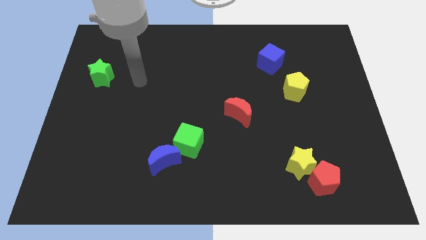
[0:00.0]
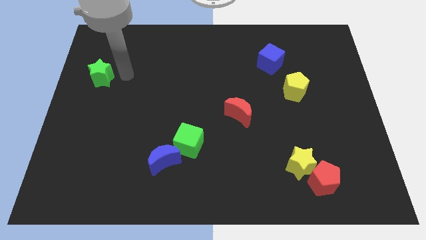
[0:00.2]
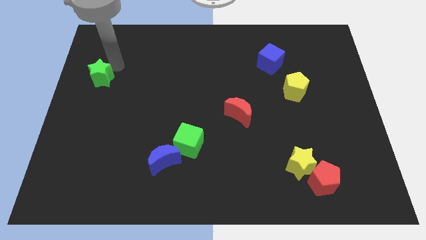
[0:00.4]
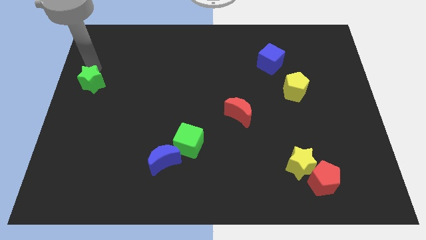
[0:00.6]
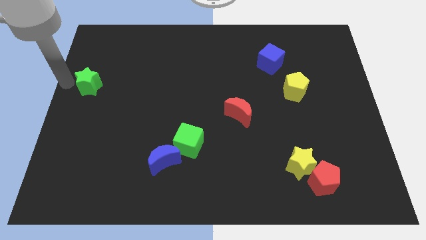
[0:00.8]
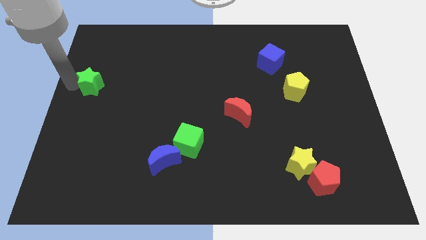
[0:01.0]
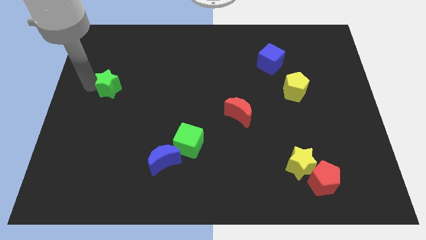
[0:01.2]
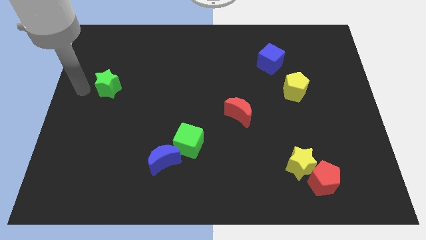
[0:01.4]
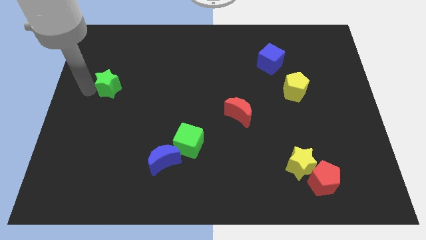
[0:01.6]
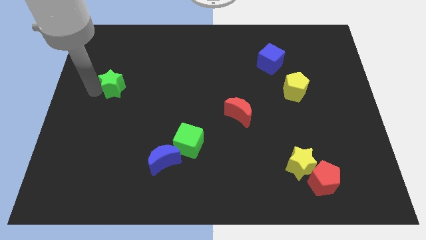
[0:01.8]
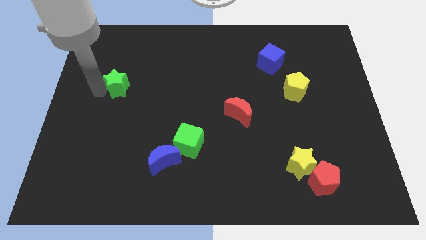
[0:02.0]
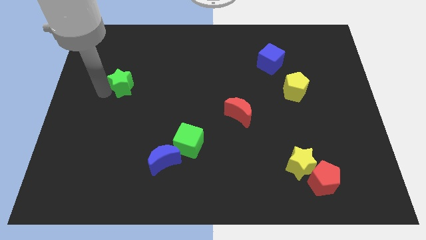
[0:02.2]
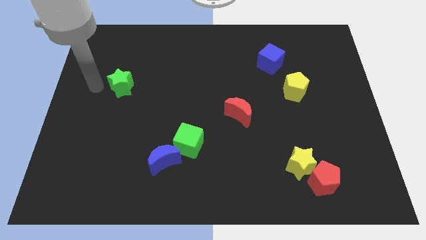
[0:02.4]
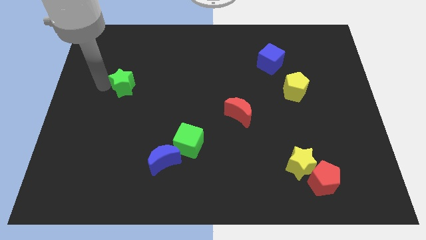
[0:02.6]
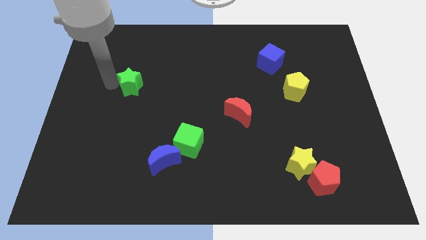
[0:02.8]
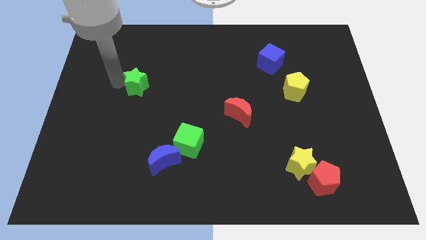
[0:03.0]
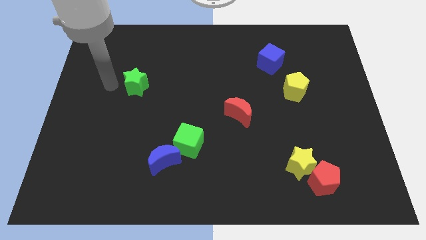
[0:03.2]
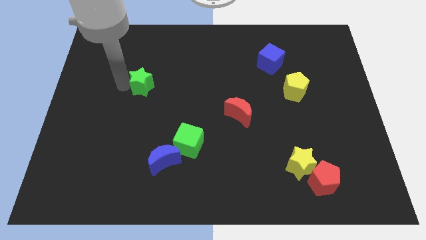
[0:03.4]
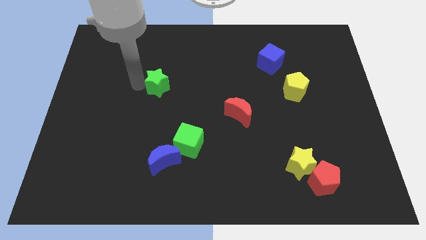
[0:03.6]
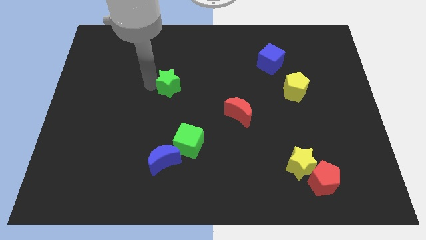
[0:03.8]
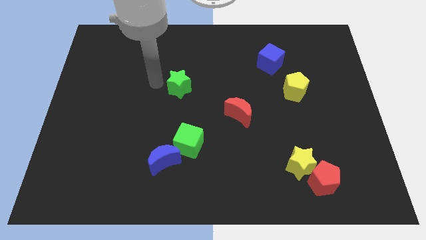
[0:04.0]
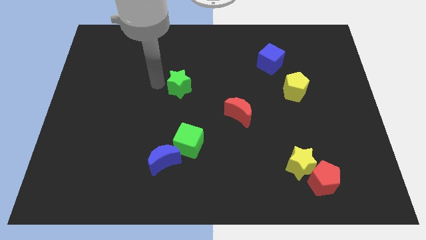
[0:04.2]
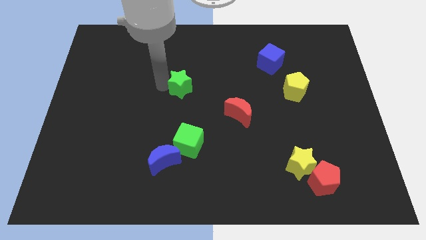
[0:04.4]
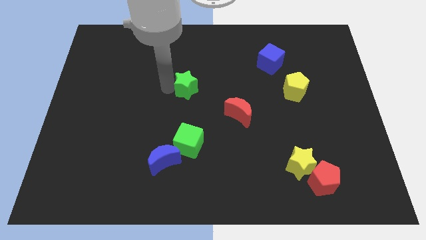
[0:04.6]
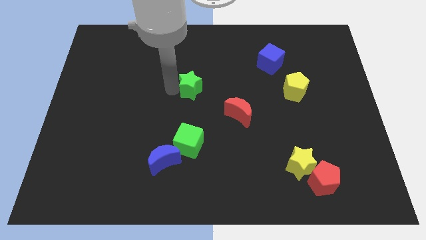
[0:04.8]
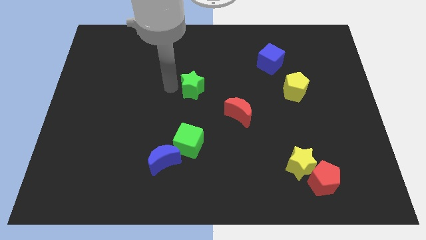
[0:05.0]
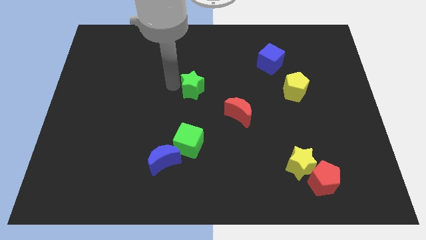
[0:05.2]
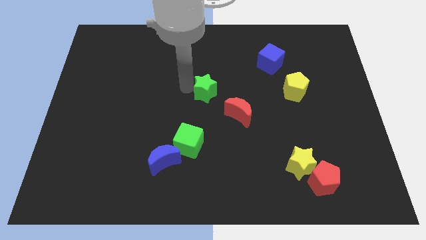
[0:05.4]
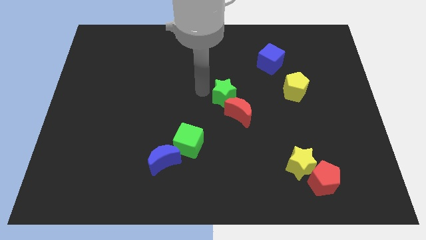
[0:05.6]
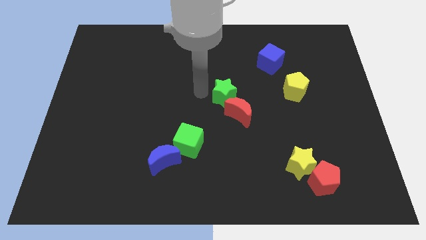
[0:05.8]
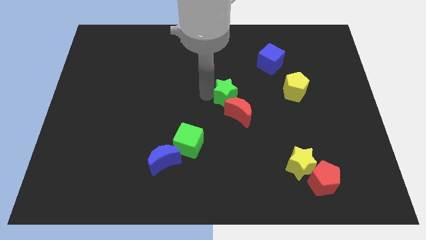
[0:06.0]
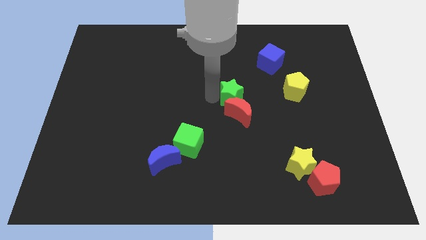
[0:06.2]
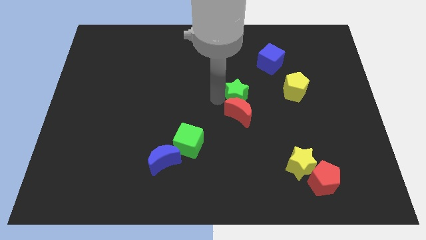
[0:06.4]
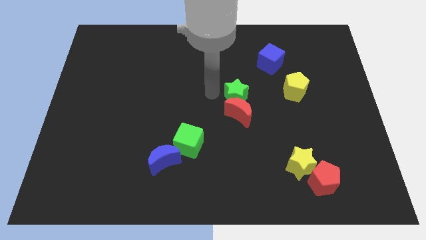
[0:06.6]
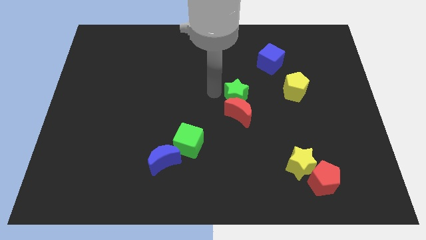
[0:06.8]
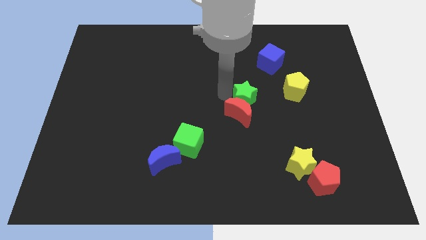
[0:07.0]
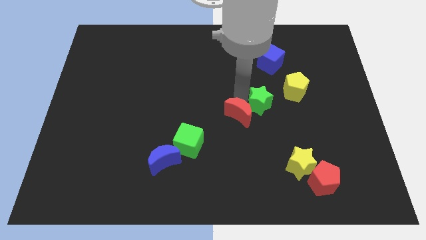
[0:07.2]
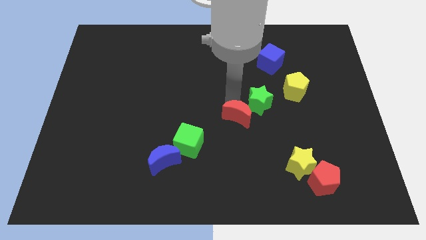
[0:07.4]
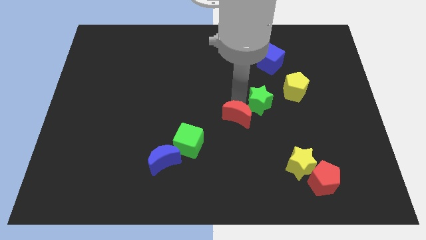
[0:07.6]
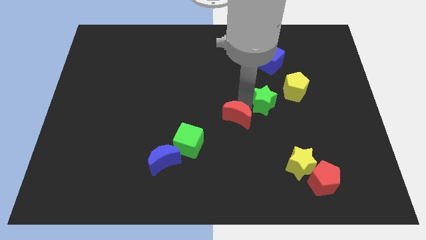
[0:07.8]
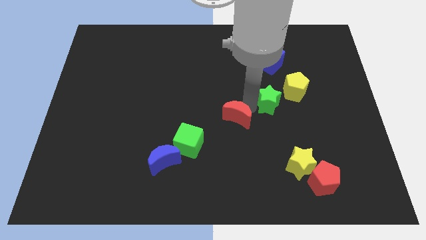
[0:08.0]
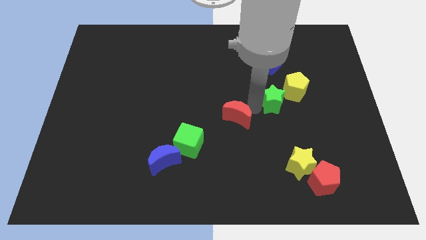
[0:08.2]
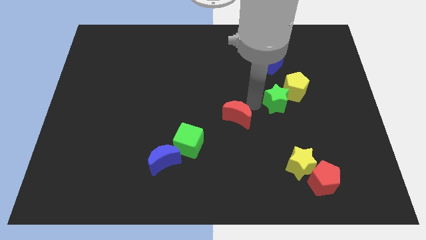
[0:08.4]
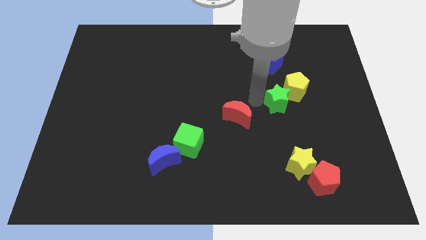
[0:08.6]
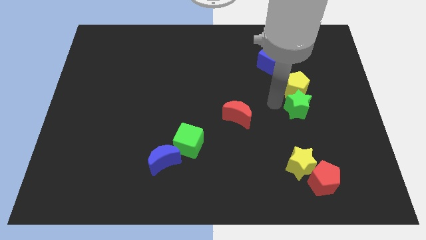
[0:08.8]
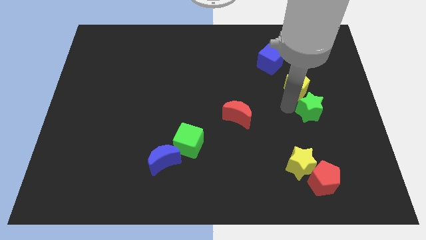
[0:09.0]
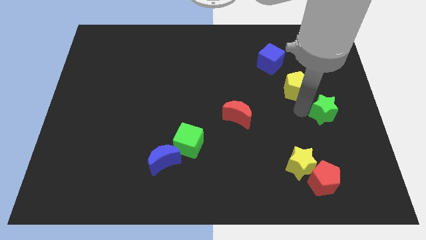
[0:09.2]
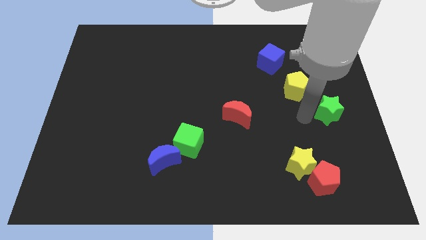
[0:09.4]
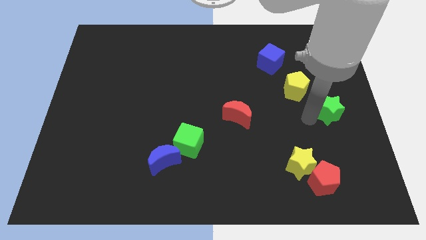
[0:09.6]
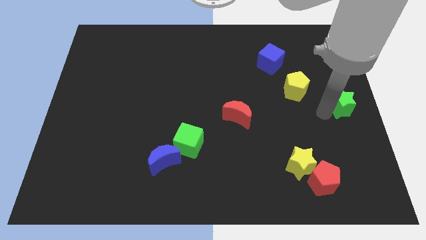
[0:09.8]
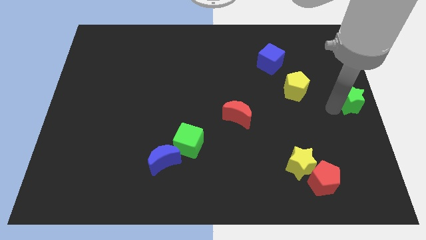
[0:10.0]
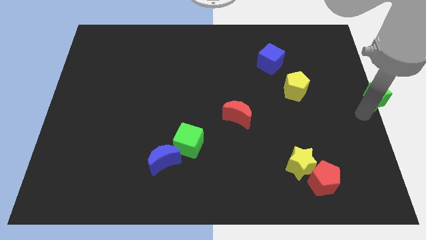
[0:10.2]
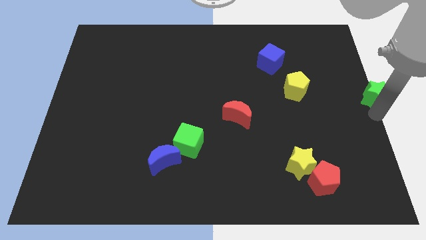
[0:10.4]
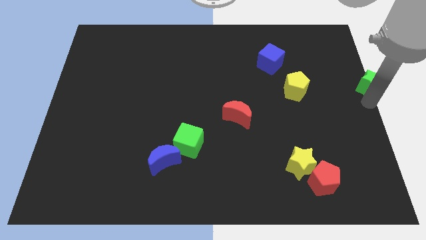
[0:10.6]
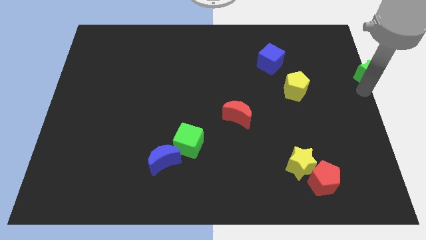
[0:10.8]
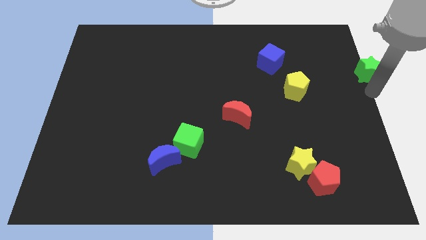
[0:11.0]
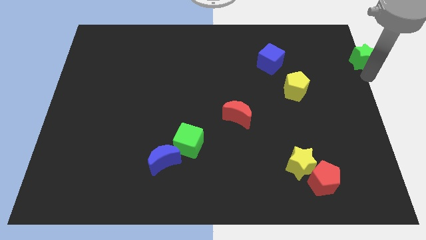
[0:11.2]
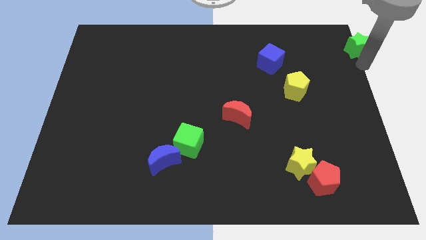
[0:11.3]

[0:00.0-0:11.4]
push the green star to the top right
